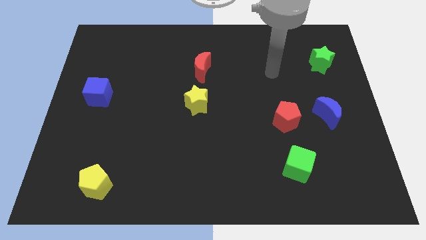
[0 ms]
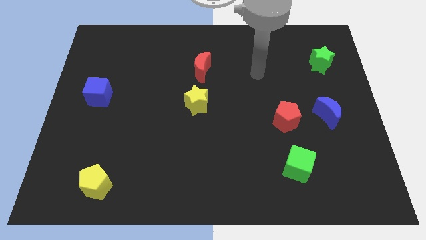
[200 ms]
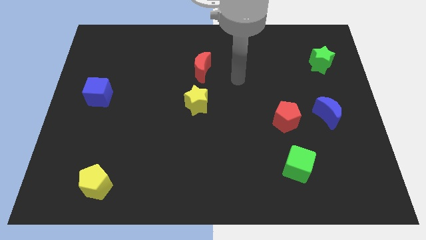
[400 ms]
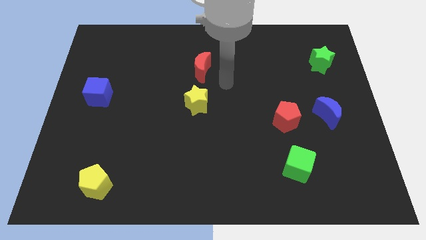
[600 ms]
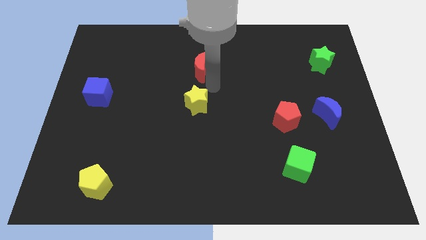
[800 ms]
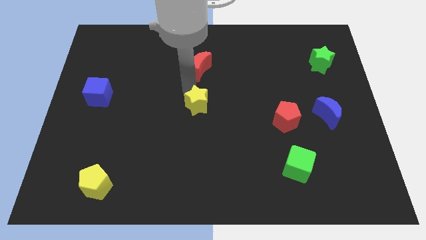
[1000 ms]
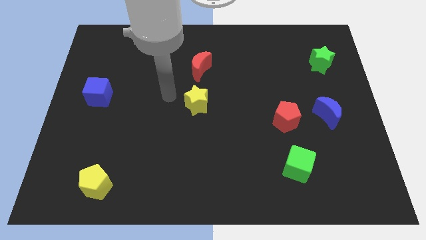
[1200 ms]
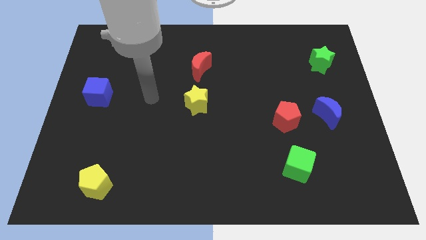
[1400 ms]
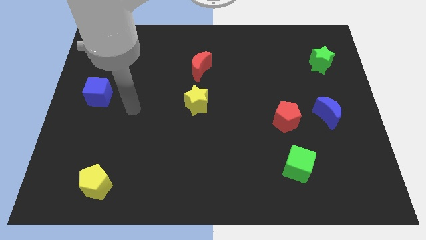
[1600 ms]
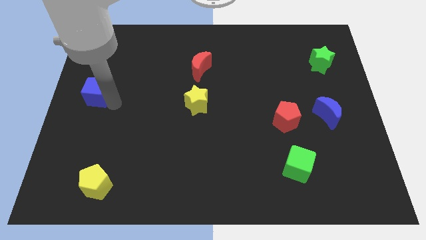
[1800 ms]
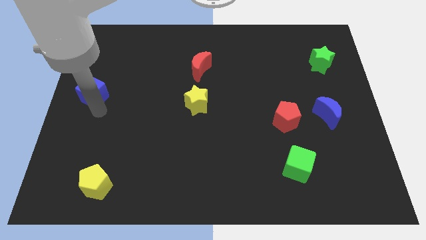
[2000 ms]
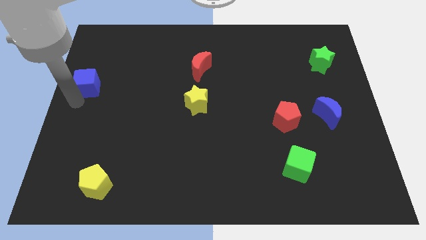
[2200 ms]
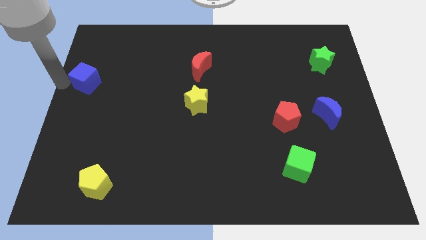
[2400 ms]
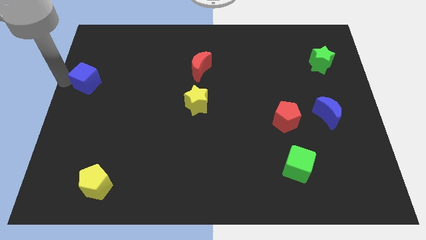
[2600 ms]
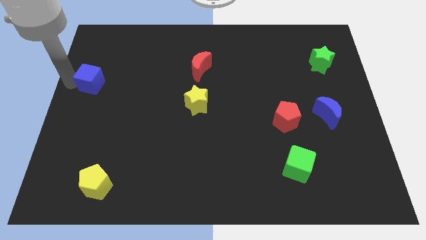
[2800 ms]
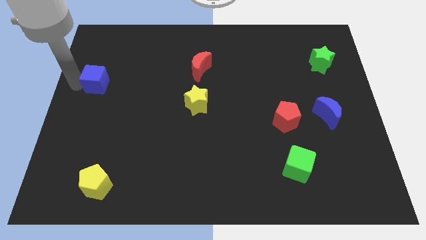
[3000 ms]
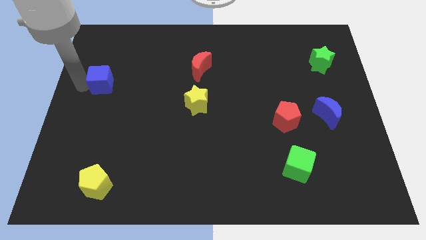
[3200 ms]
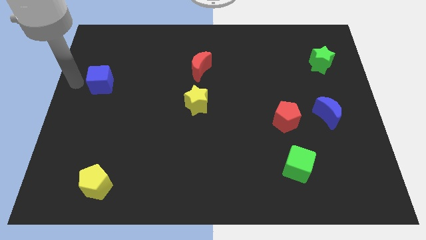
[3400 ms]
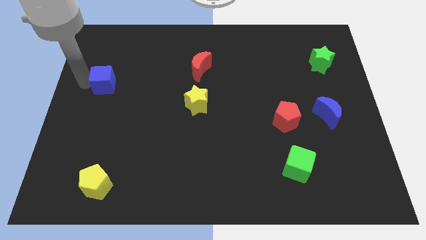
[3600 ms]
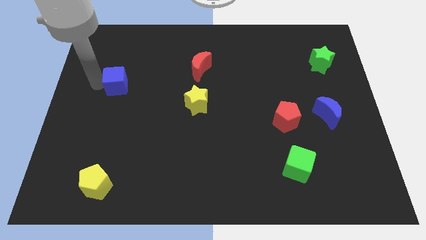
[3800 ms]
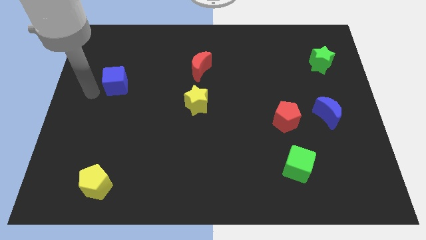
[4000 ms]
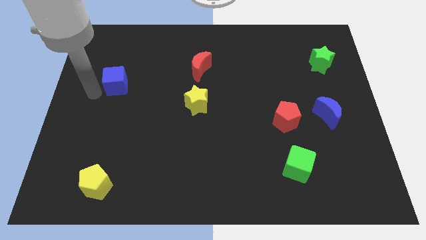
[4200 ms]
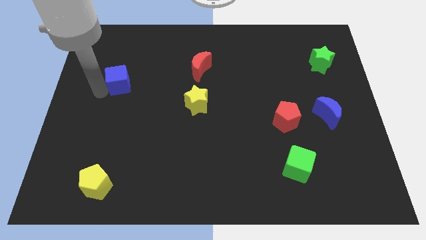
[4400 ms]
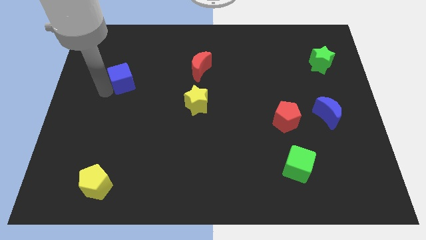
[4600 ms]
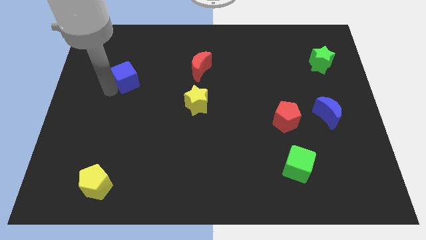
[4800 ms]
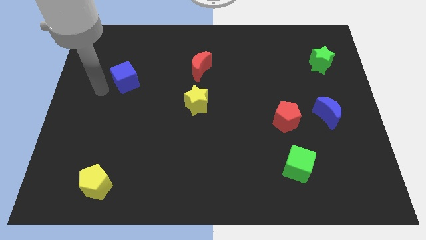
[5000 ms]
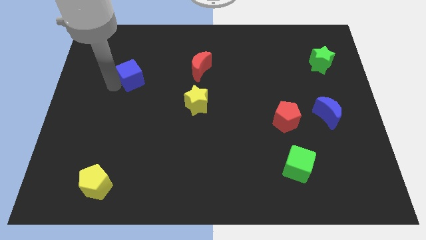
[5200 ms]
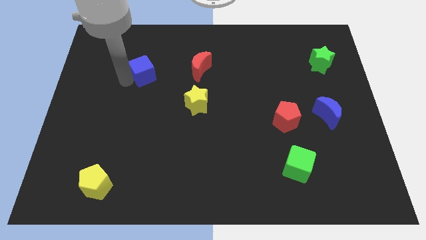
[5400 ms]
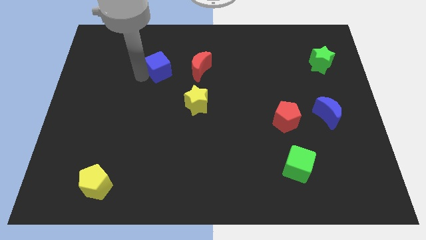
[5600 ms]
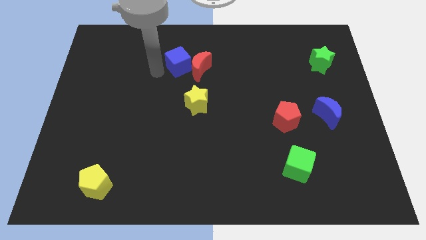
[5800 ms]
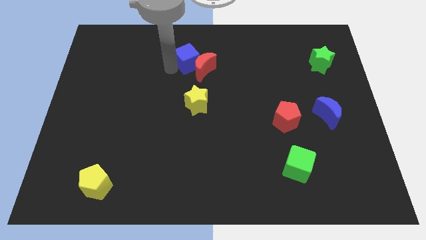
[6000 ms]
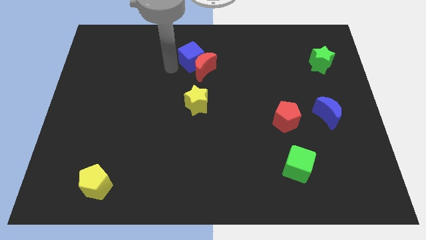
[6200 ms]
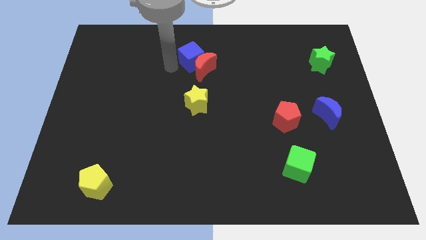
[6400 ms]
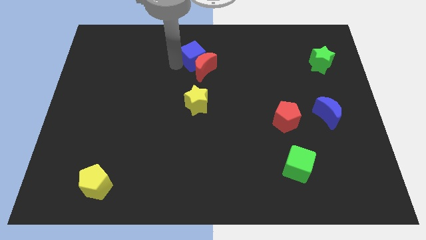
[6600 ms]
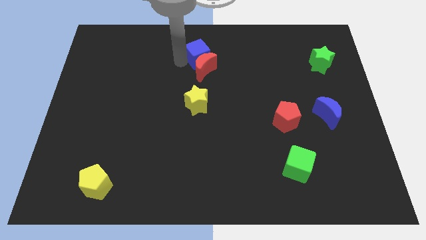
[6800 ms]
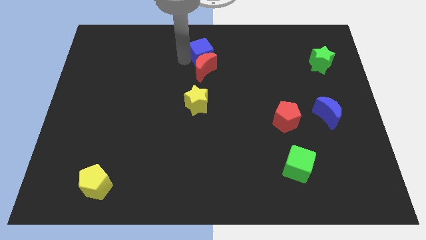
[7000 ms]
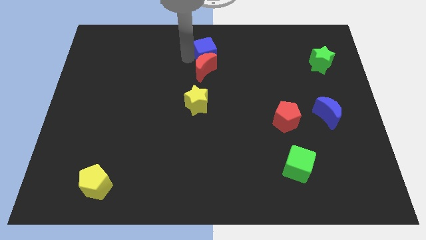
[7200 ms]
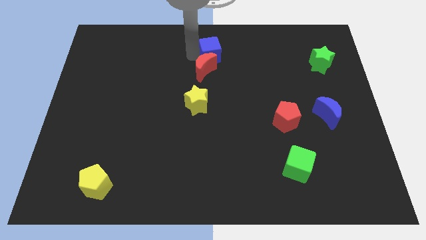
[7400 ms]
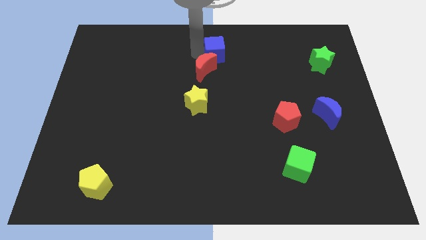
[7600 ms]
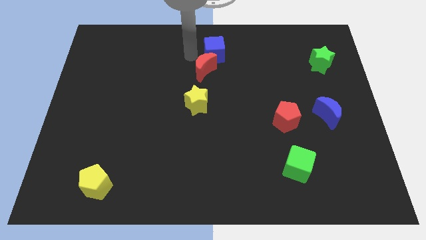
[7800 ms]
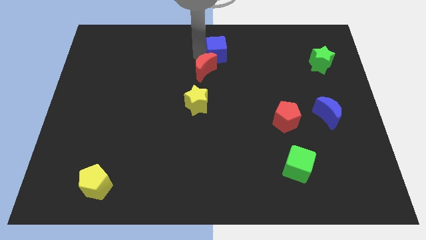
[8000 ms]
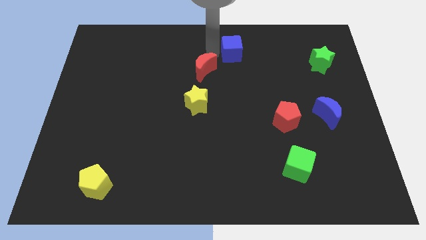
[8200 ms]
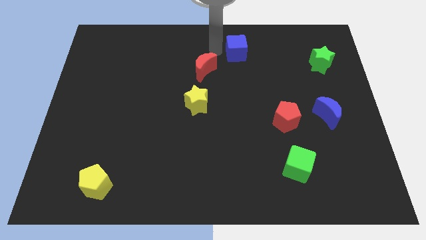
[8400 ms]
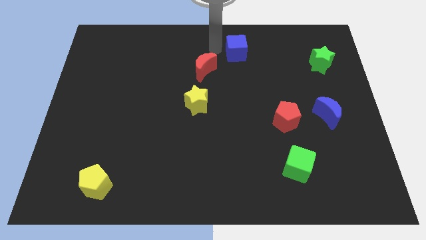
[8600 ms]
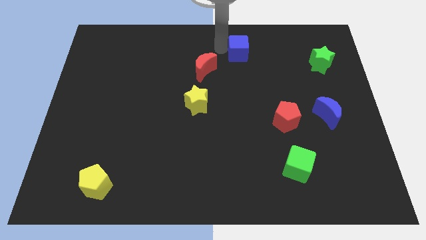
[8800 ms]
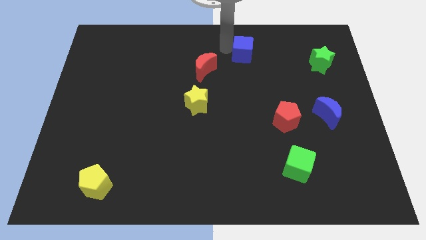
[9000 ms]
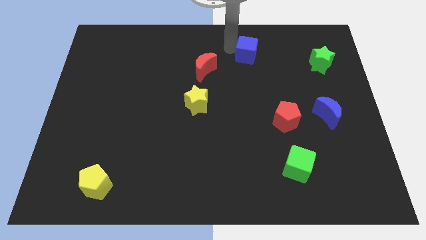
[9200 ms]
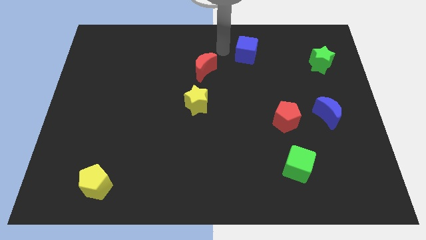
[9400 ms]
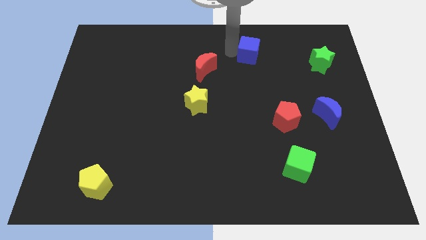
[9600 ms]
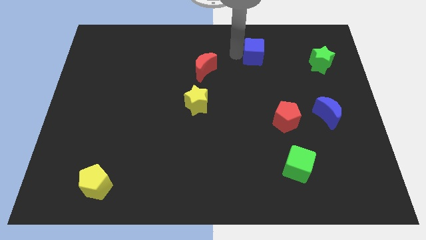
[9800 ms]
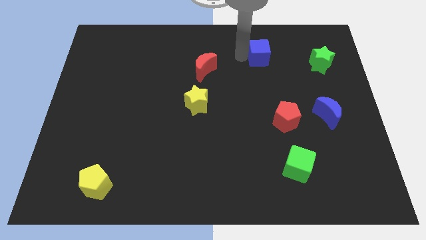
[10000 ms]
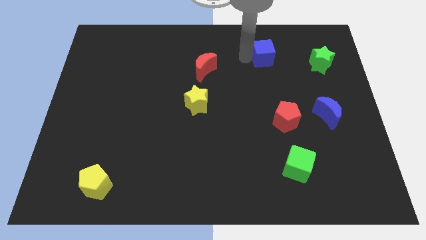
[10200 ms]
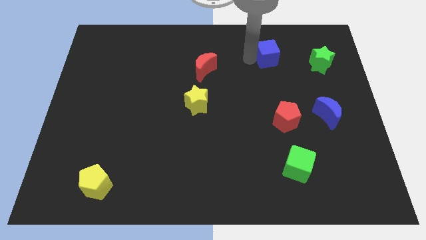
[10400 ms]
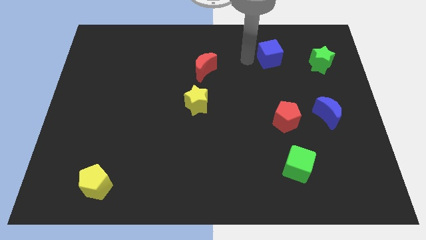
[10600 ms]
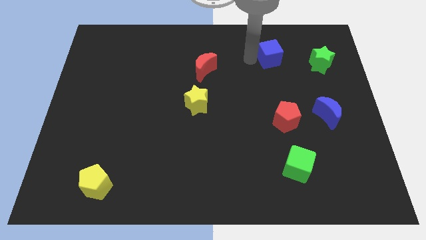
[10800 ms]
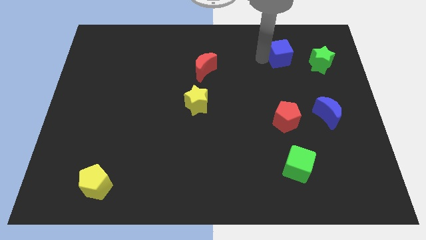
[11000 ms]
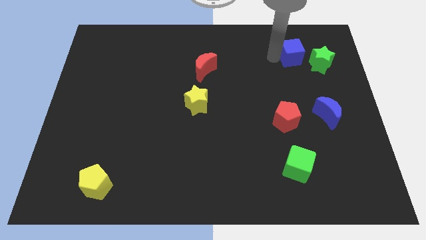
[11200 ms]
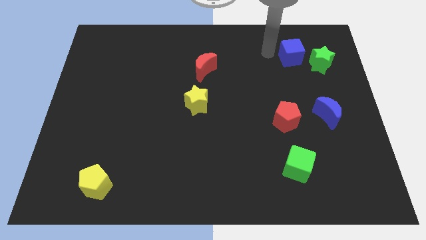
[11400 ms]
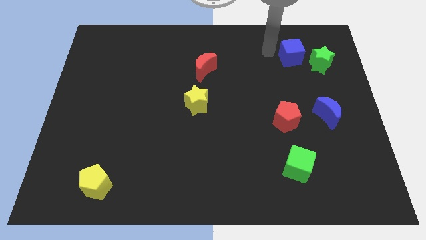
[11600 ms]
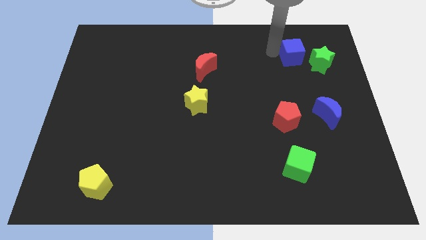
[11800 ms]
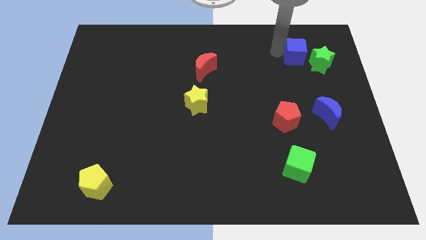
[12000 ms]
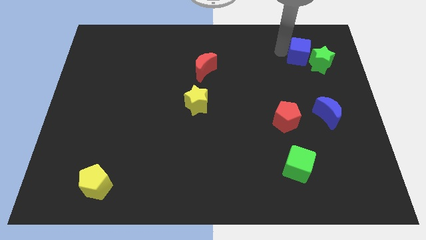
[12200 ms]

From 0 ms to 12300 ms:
slide the blue cube next to the green star

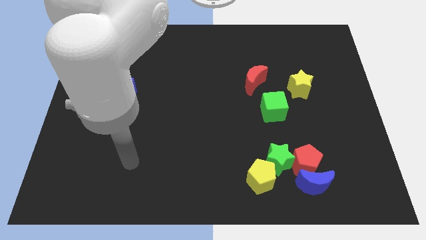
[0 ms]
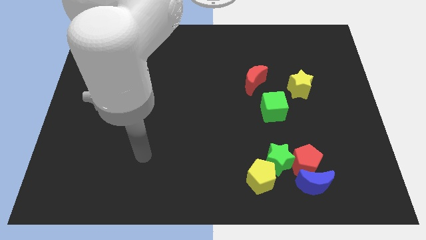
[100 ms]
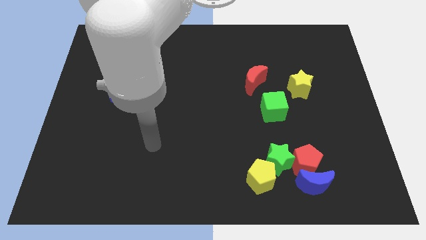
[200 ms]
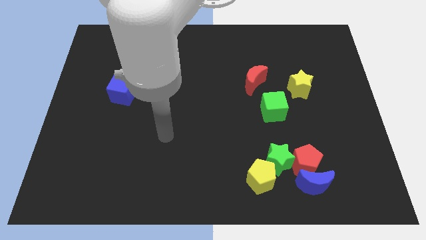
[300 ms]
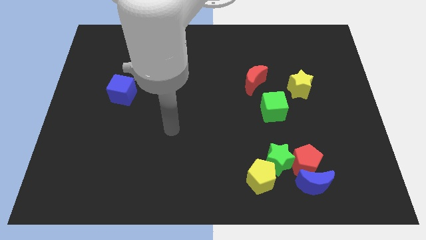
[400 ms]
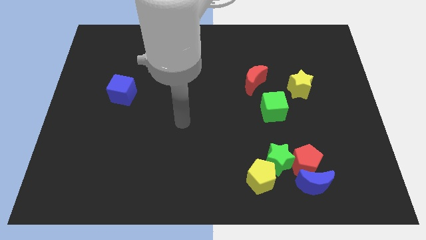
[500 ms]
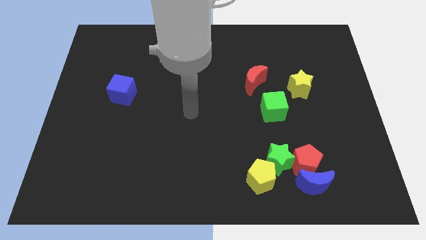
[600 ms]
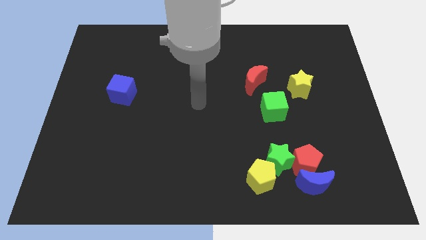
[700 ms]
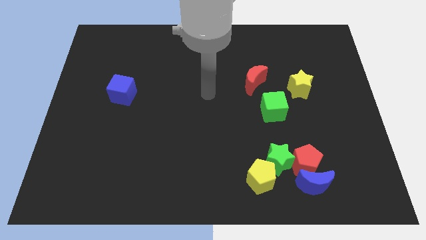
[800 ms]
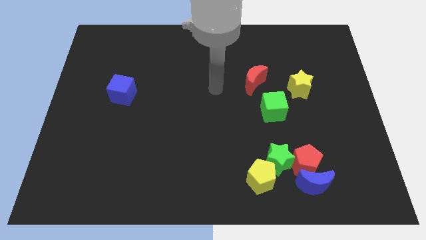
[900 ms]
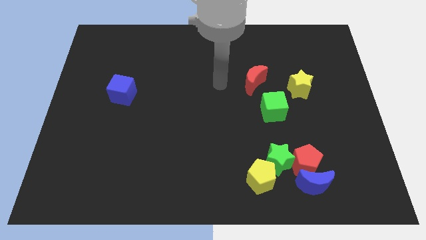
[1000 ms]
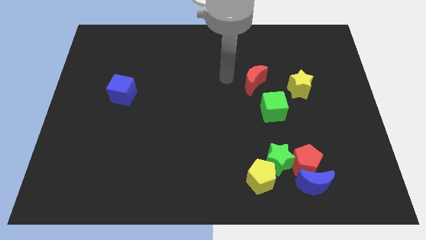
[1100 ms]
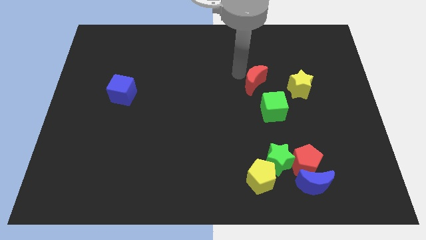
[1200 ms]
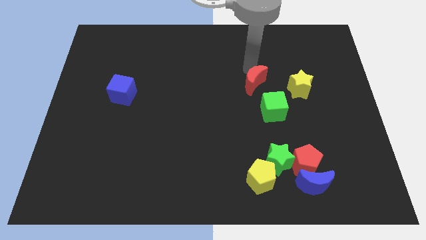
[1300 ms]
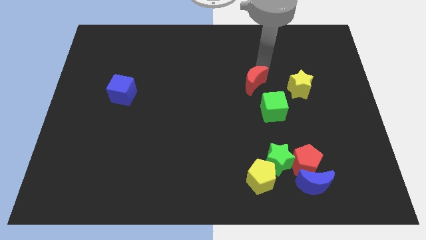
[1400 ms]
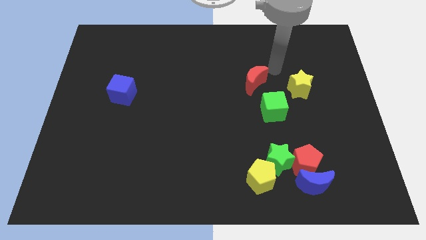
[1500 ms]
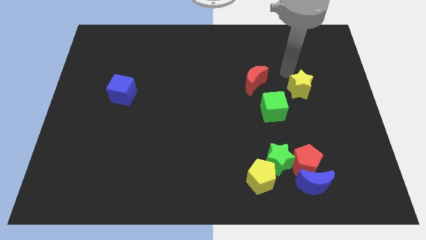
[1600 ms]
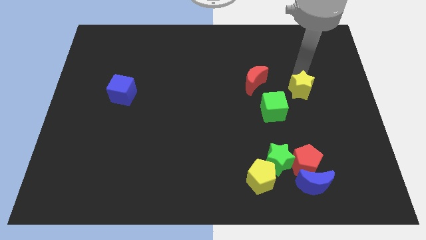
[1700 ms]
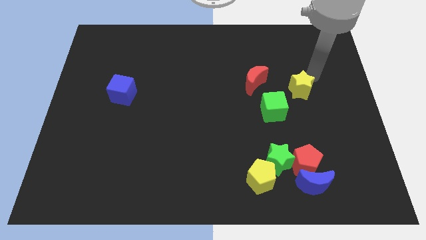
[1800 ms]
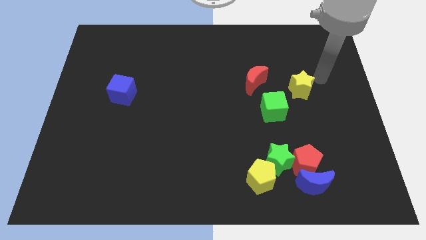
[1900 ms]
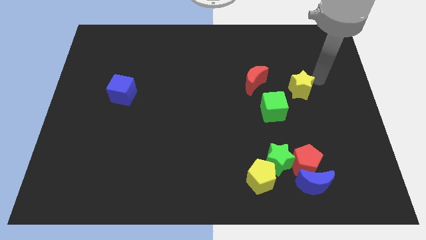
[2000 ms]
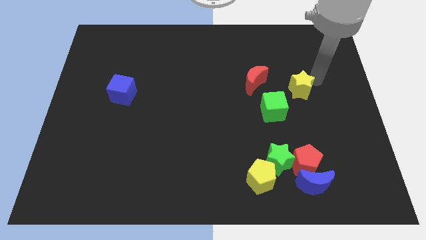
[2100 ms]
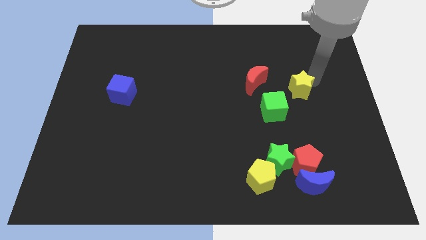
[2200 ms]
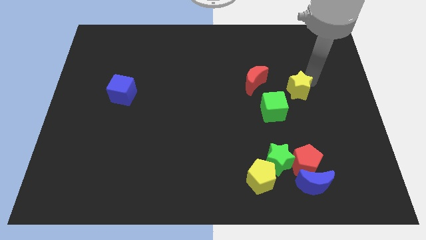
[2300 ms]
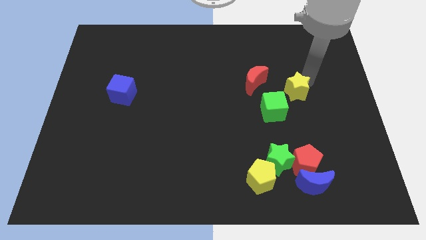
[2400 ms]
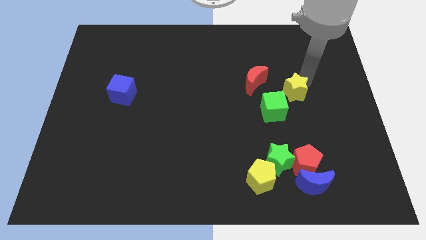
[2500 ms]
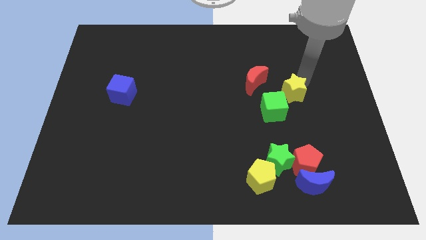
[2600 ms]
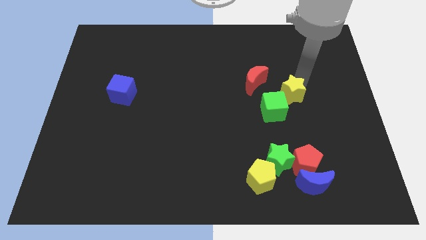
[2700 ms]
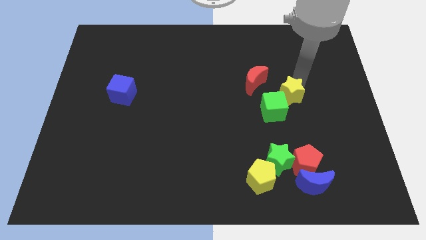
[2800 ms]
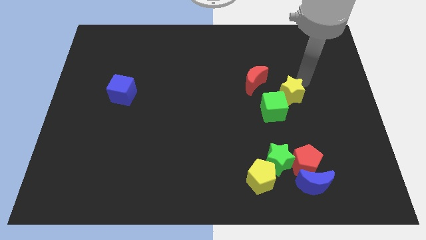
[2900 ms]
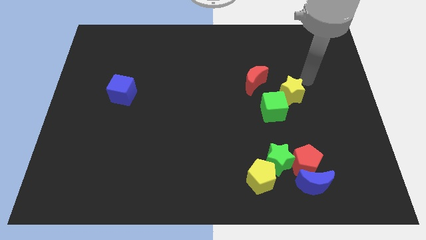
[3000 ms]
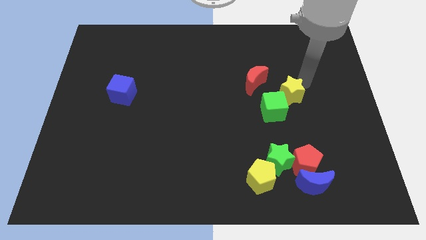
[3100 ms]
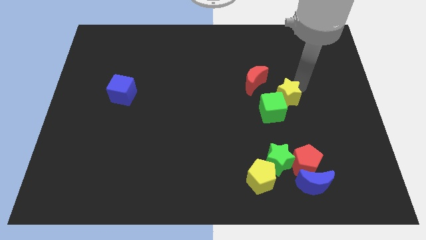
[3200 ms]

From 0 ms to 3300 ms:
put the yellow star next to the green cube
